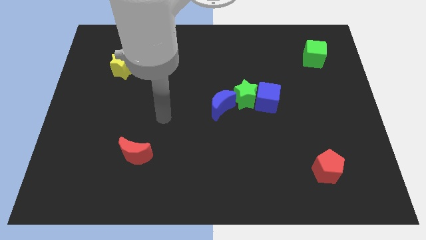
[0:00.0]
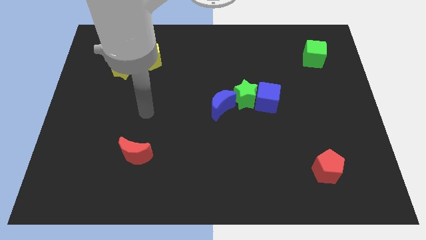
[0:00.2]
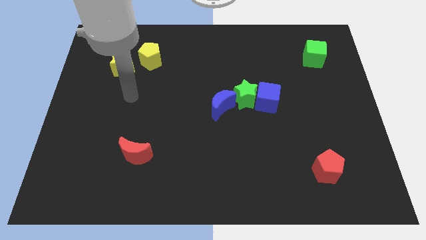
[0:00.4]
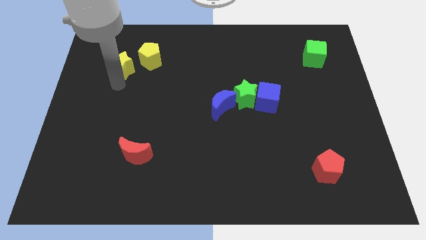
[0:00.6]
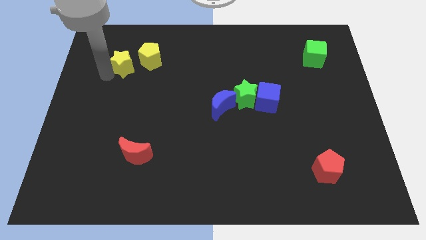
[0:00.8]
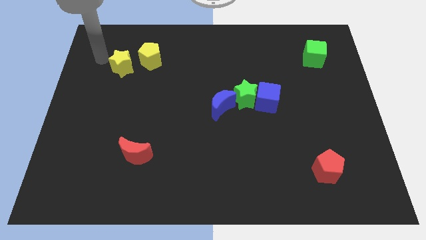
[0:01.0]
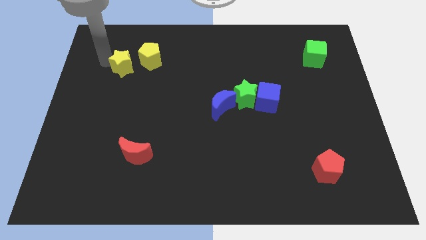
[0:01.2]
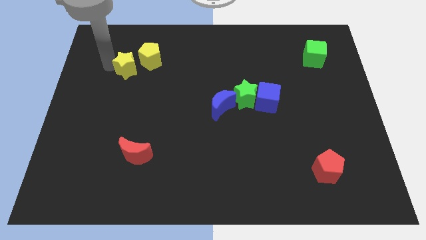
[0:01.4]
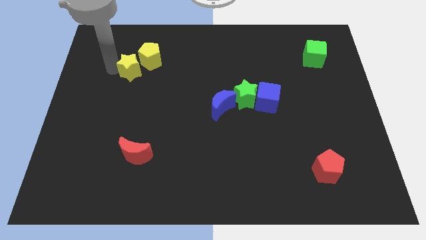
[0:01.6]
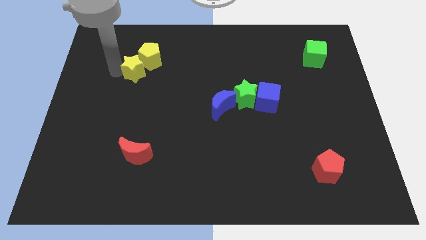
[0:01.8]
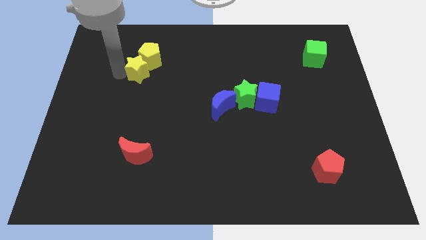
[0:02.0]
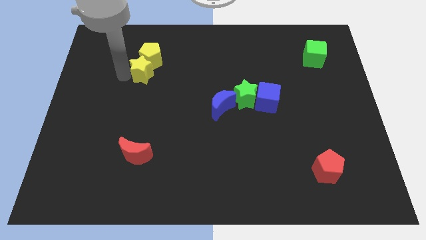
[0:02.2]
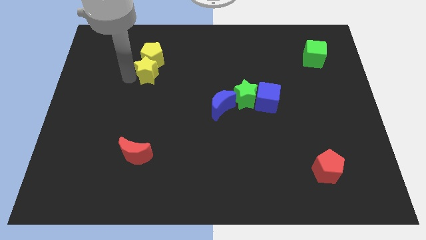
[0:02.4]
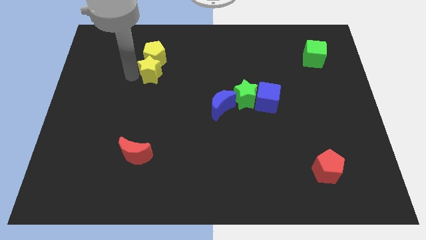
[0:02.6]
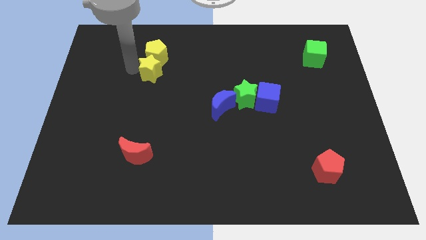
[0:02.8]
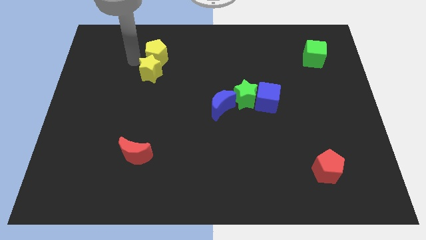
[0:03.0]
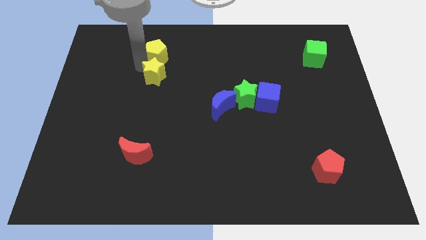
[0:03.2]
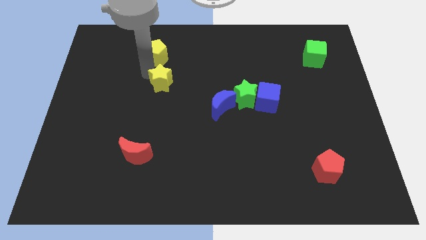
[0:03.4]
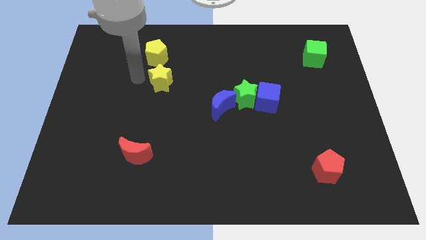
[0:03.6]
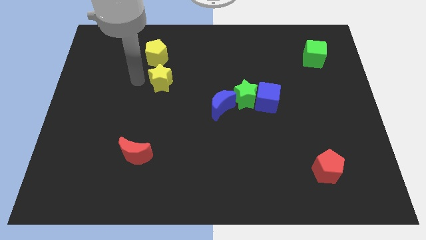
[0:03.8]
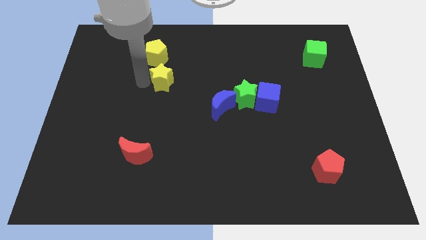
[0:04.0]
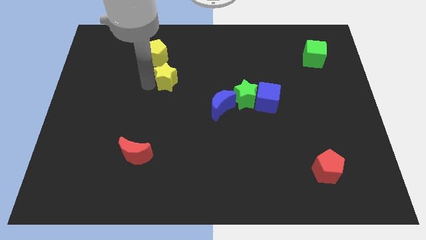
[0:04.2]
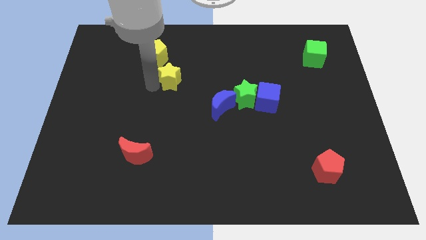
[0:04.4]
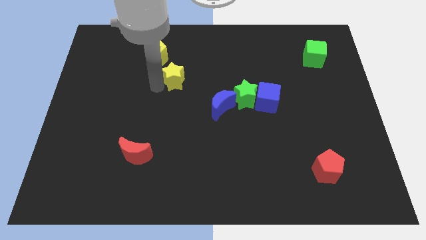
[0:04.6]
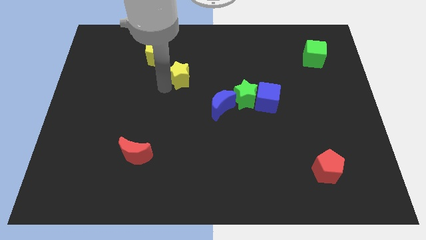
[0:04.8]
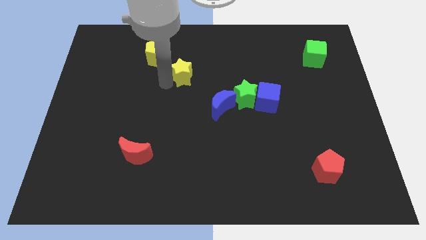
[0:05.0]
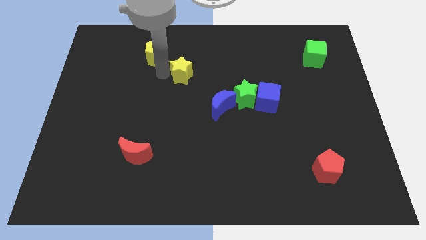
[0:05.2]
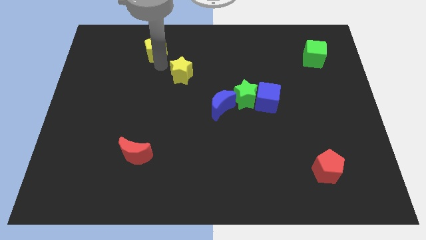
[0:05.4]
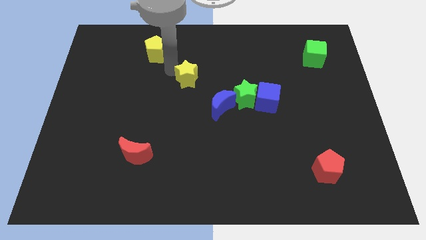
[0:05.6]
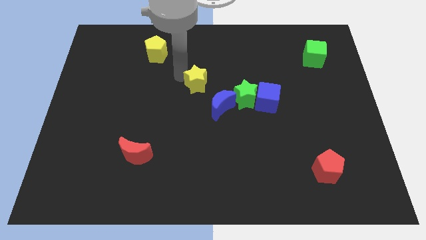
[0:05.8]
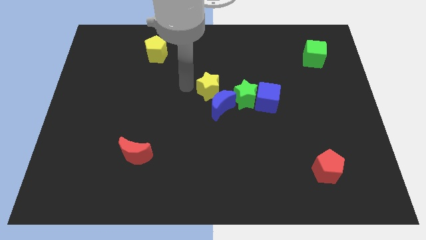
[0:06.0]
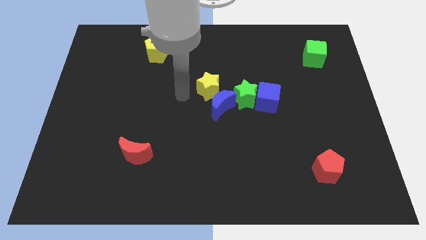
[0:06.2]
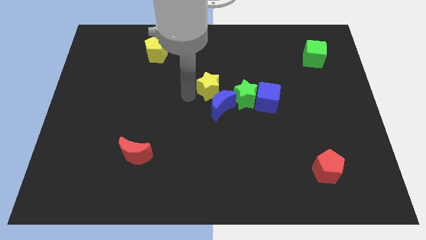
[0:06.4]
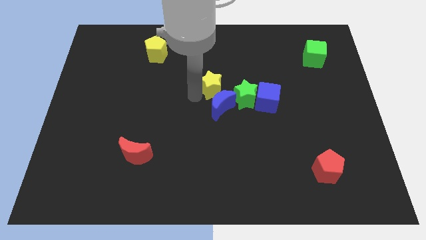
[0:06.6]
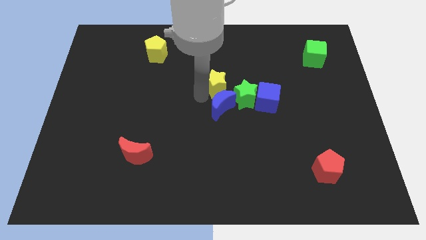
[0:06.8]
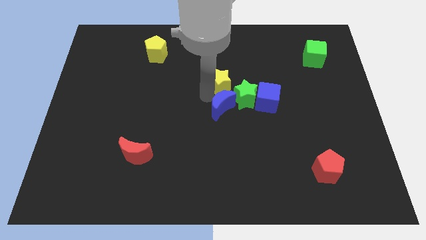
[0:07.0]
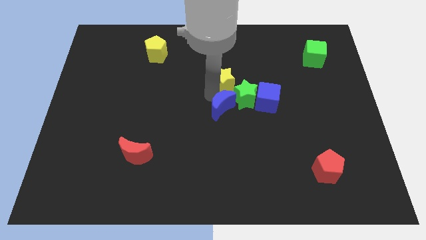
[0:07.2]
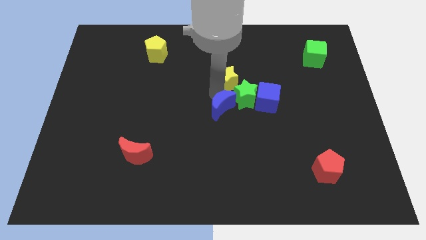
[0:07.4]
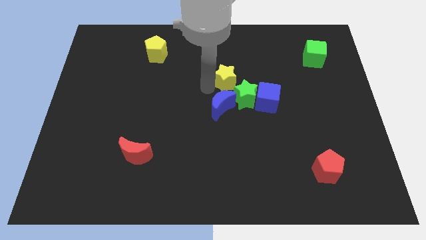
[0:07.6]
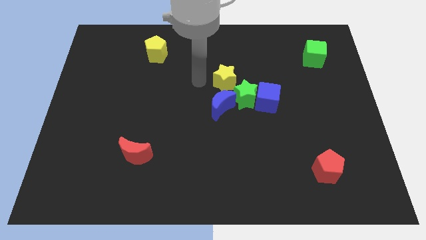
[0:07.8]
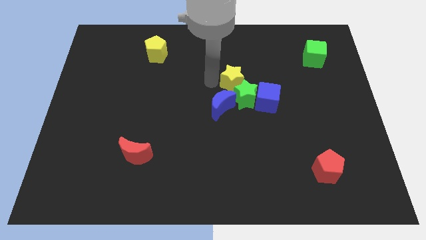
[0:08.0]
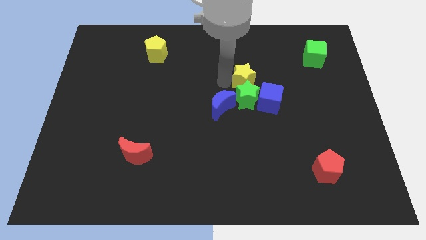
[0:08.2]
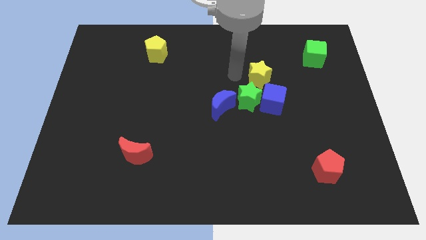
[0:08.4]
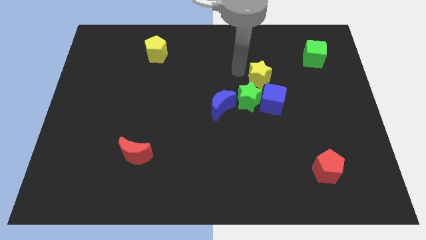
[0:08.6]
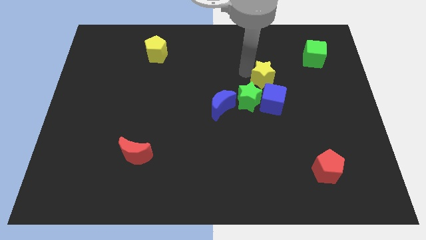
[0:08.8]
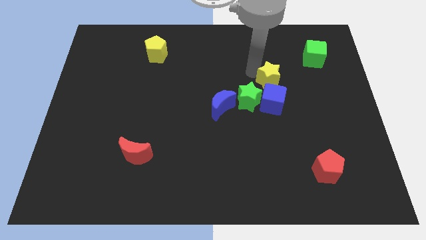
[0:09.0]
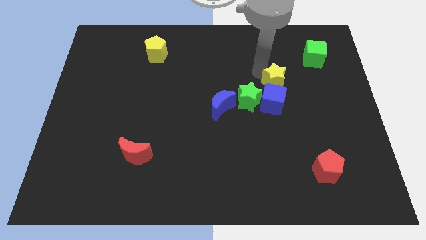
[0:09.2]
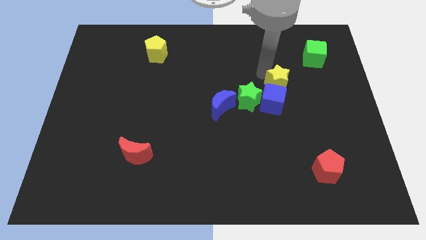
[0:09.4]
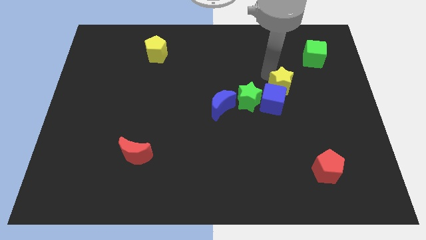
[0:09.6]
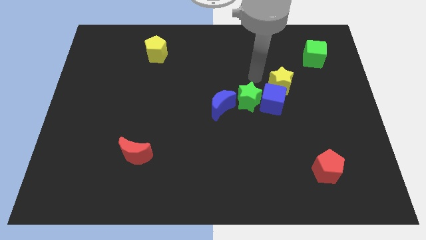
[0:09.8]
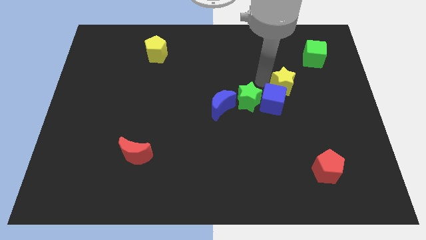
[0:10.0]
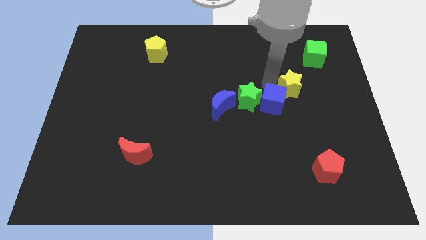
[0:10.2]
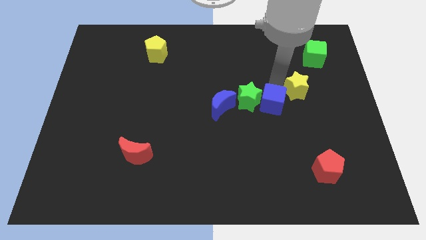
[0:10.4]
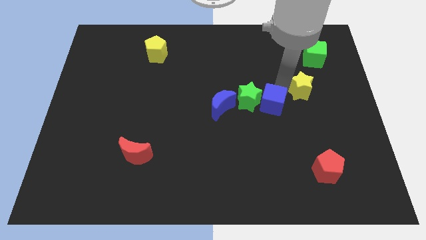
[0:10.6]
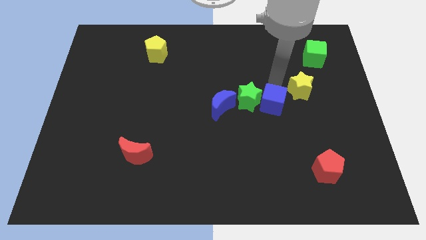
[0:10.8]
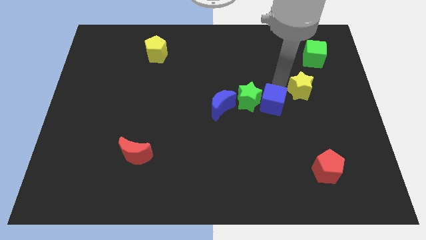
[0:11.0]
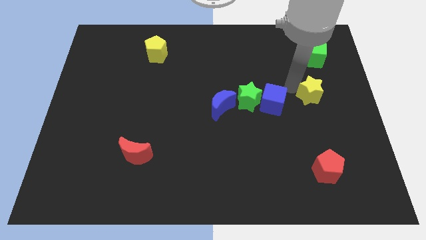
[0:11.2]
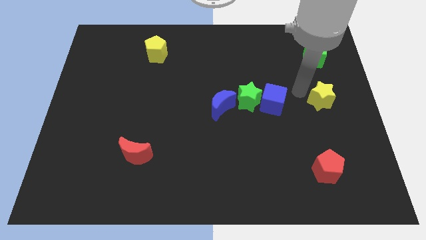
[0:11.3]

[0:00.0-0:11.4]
push the yellow star to the right side of the board
